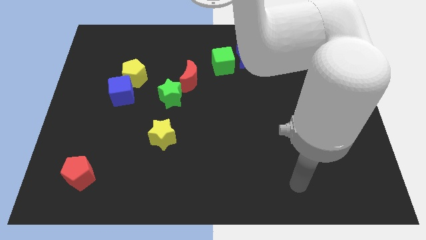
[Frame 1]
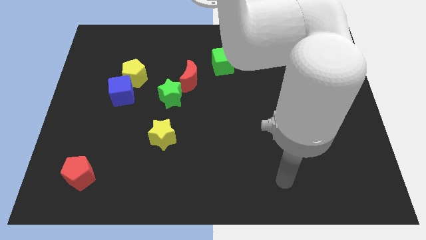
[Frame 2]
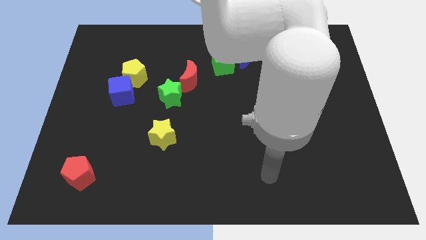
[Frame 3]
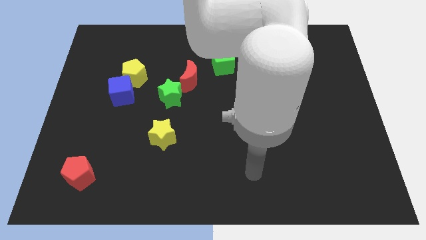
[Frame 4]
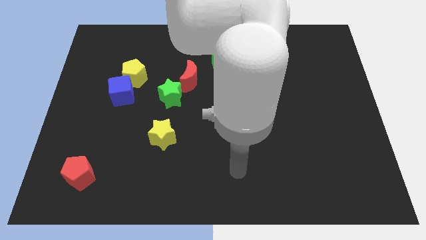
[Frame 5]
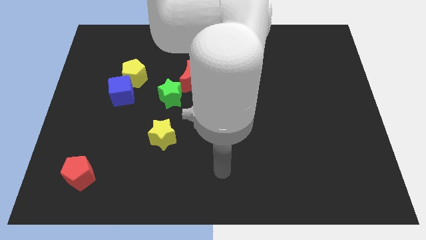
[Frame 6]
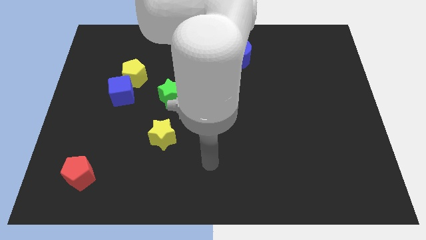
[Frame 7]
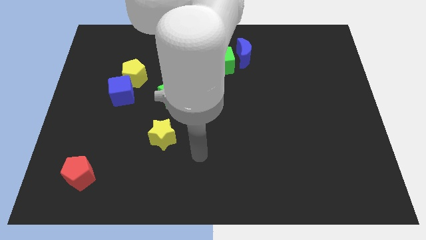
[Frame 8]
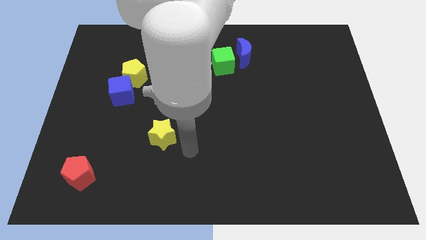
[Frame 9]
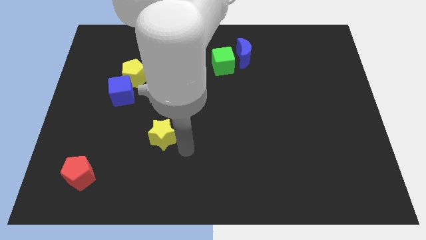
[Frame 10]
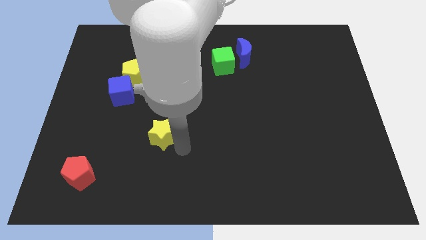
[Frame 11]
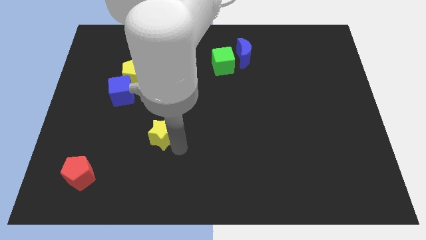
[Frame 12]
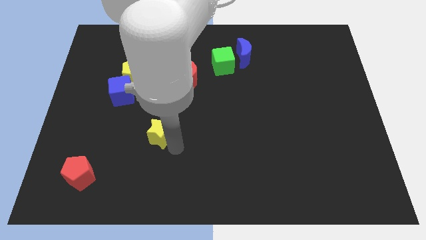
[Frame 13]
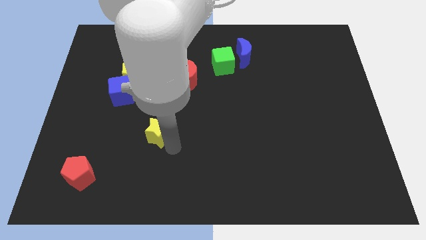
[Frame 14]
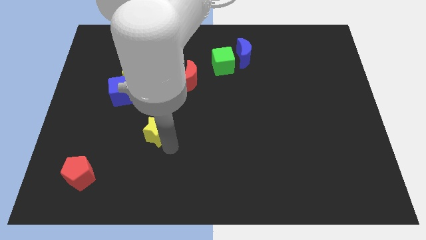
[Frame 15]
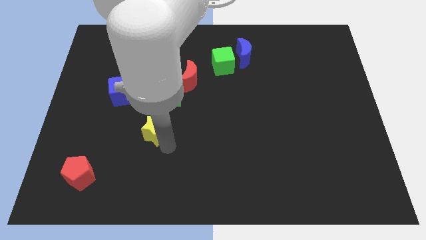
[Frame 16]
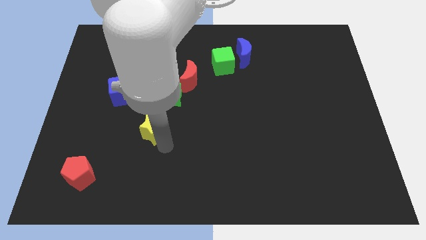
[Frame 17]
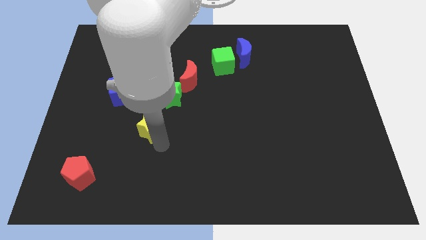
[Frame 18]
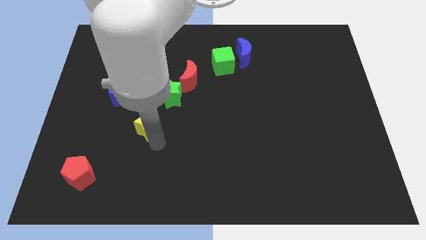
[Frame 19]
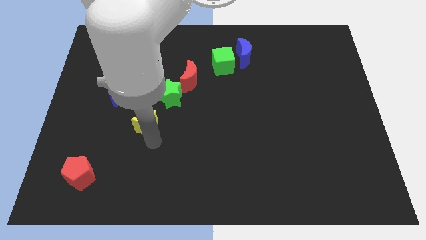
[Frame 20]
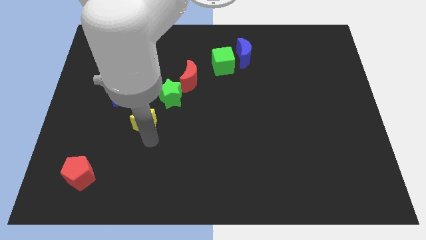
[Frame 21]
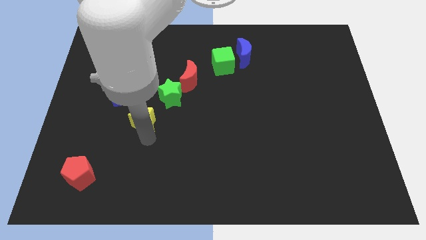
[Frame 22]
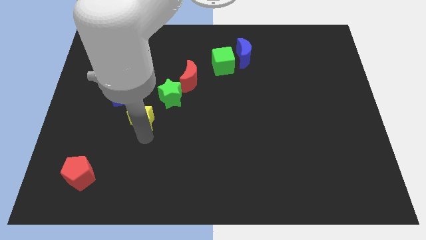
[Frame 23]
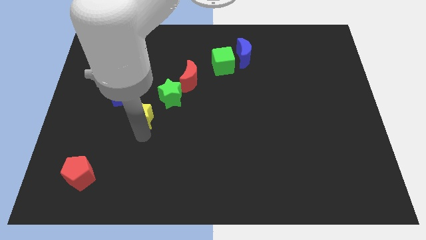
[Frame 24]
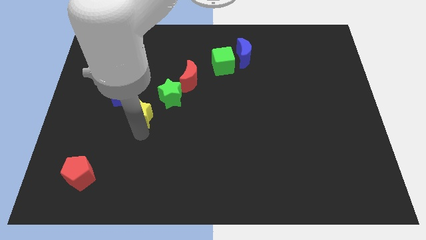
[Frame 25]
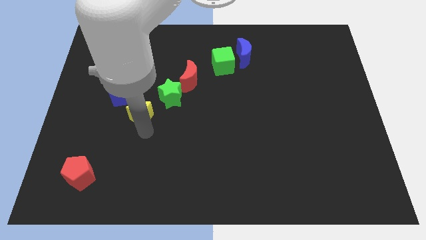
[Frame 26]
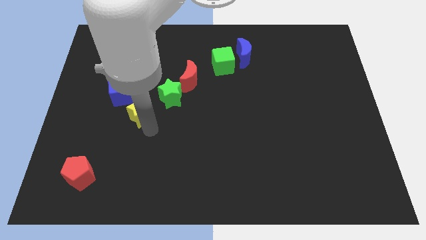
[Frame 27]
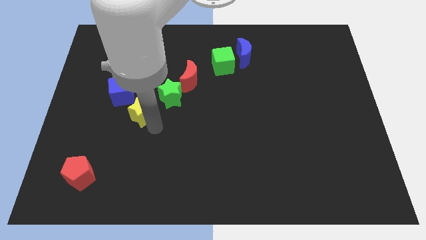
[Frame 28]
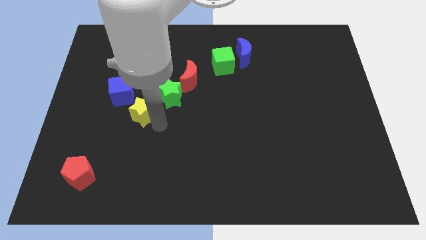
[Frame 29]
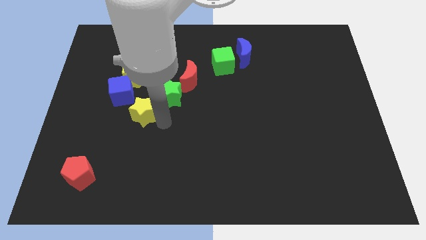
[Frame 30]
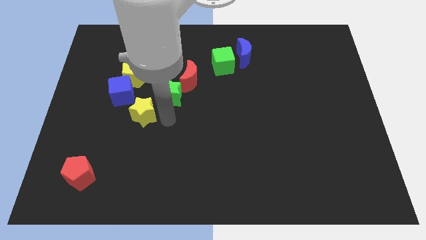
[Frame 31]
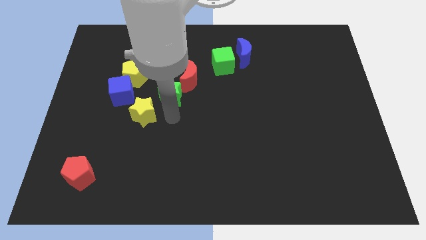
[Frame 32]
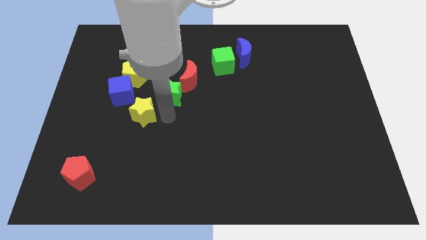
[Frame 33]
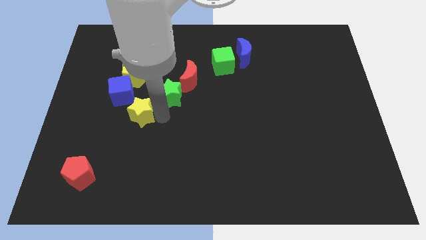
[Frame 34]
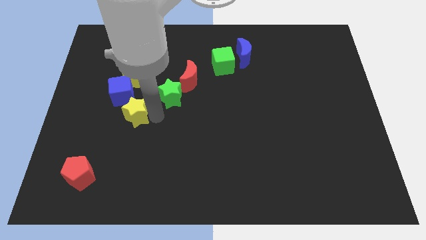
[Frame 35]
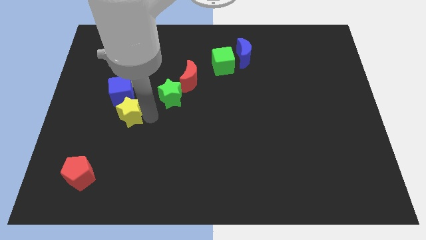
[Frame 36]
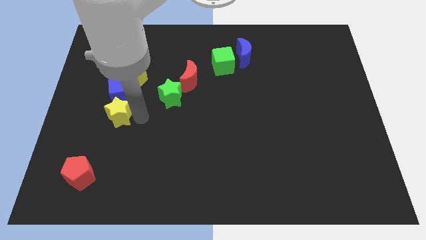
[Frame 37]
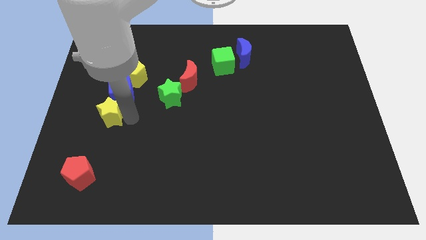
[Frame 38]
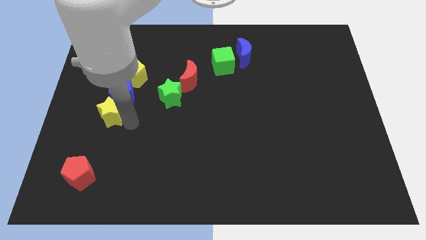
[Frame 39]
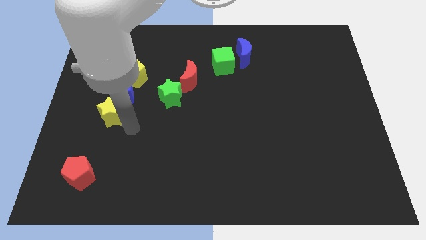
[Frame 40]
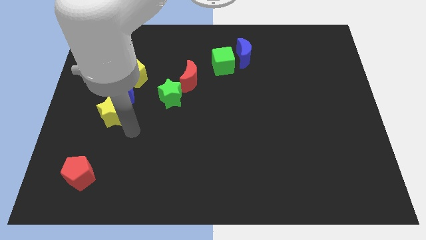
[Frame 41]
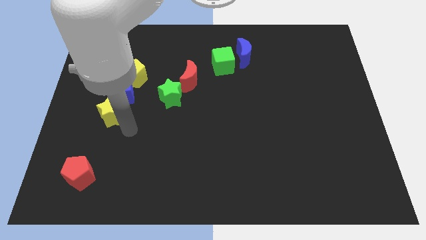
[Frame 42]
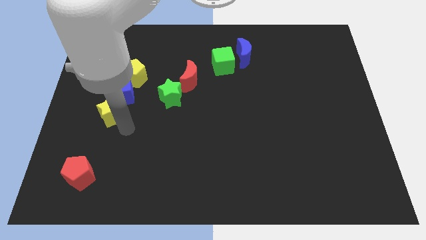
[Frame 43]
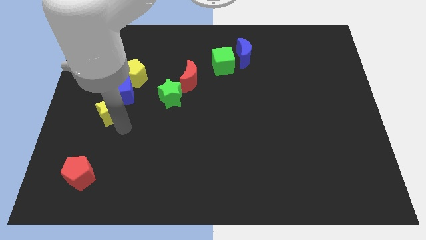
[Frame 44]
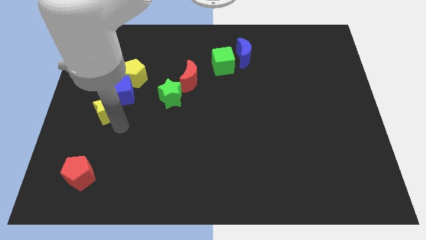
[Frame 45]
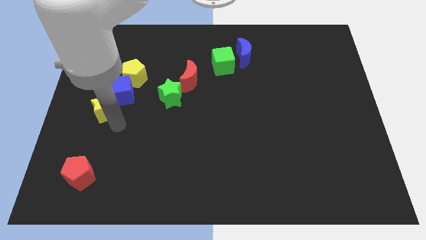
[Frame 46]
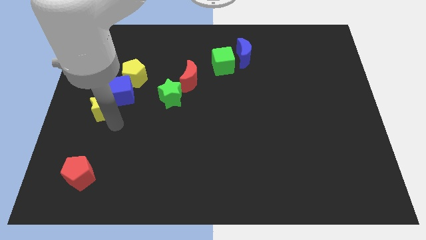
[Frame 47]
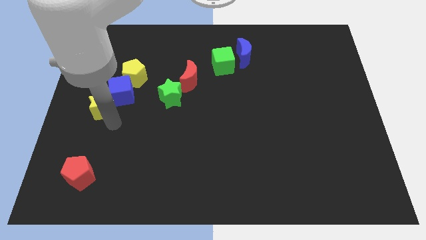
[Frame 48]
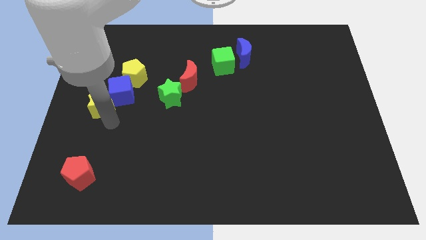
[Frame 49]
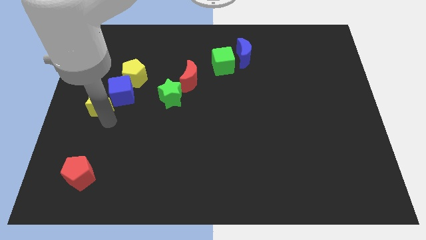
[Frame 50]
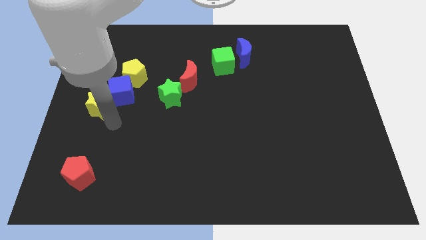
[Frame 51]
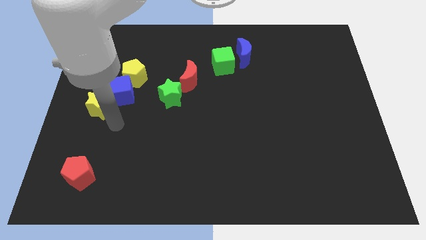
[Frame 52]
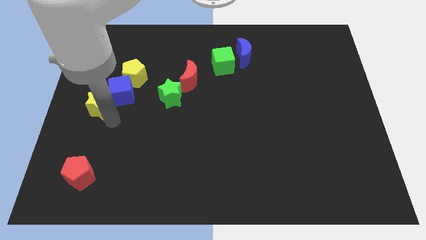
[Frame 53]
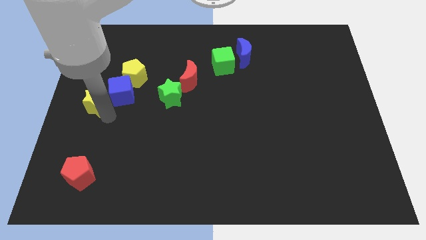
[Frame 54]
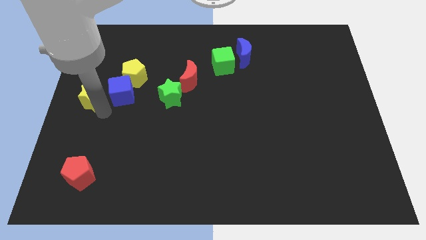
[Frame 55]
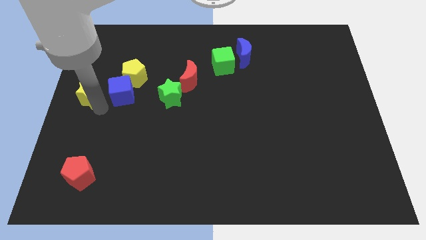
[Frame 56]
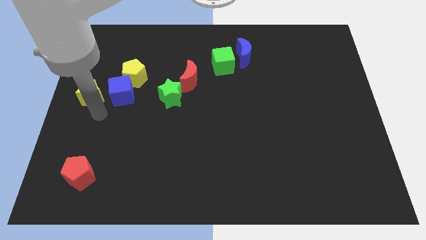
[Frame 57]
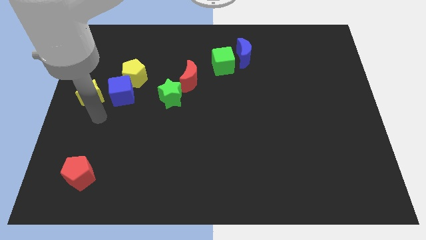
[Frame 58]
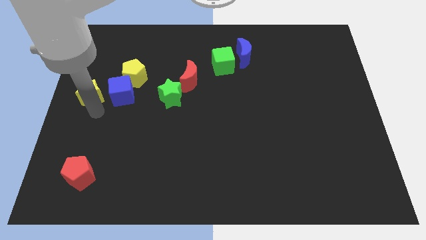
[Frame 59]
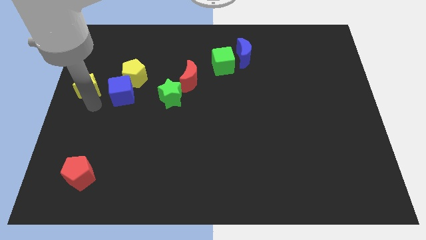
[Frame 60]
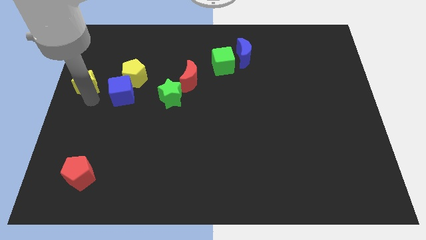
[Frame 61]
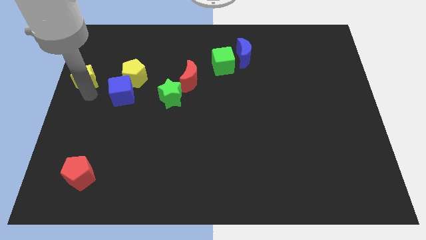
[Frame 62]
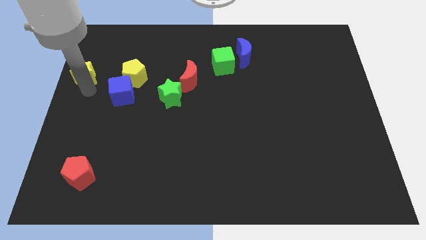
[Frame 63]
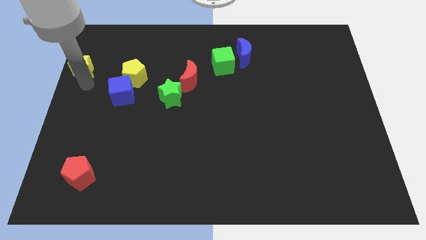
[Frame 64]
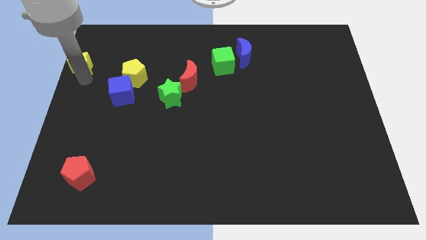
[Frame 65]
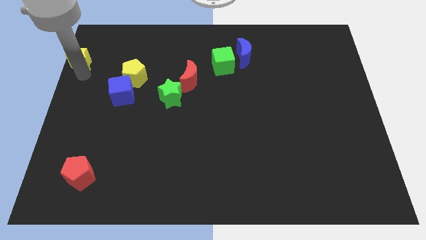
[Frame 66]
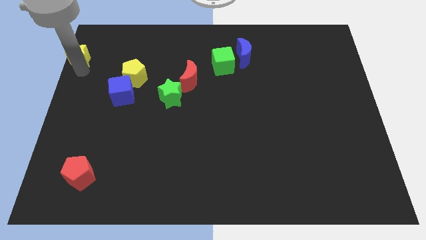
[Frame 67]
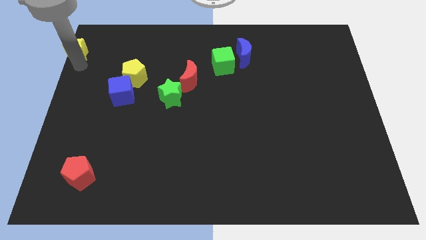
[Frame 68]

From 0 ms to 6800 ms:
put the yellow star to the top left

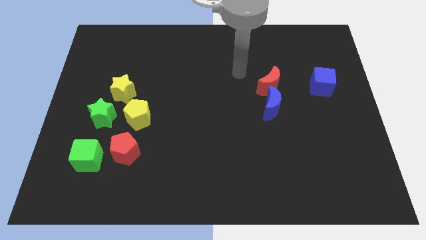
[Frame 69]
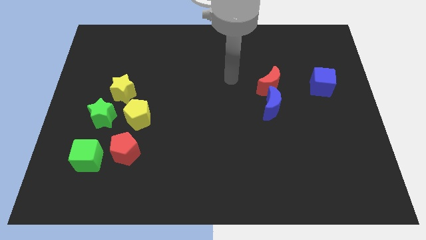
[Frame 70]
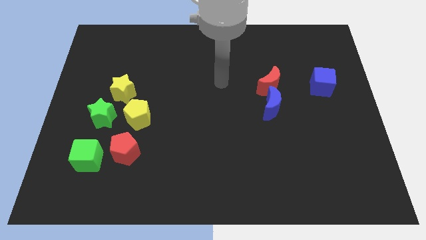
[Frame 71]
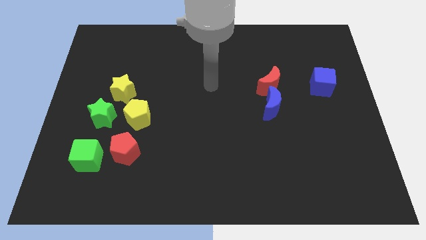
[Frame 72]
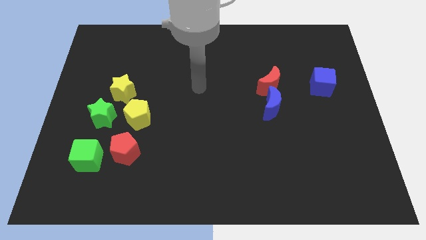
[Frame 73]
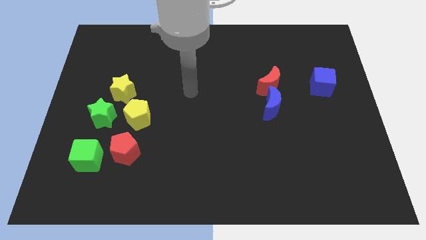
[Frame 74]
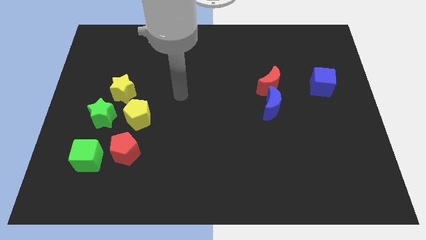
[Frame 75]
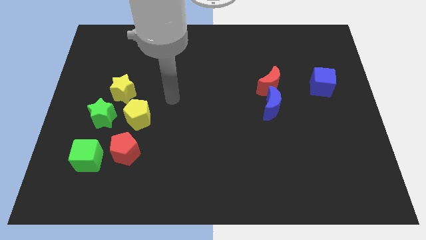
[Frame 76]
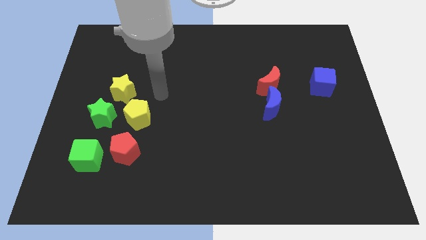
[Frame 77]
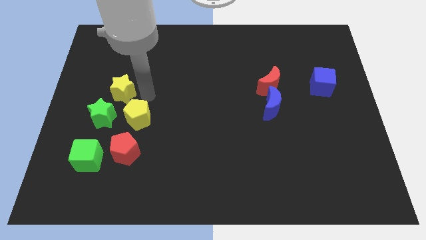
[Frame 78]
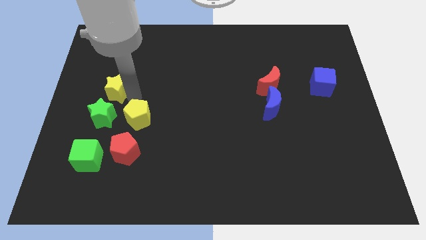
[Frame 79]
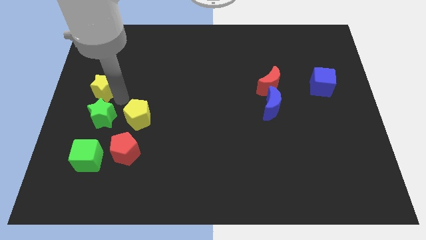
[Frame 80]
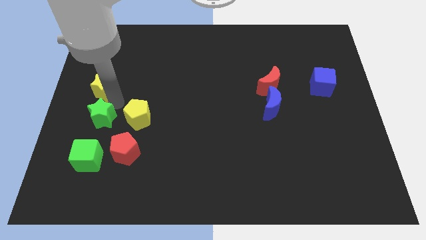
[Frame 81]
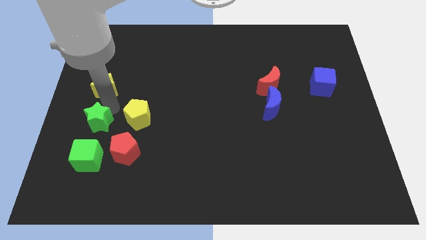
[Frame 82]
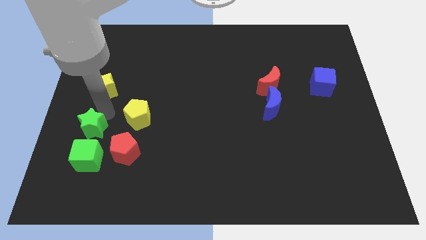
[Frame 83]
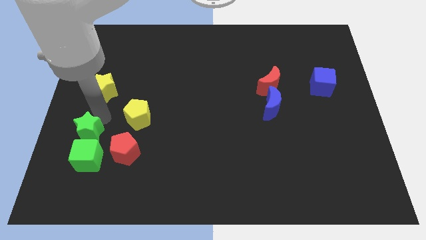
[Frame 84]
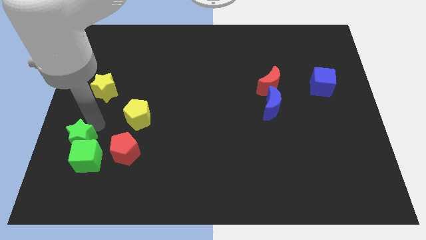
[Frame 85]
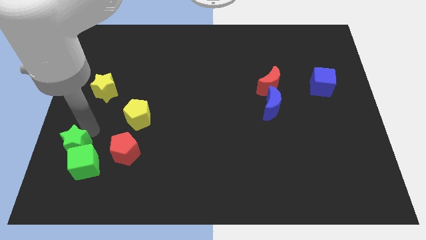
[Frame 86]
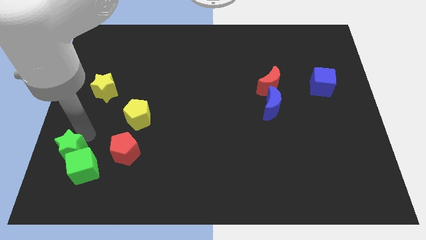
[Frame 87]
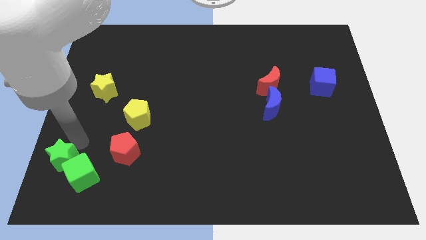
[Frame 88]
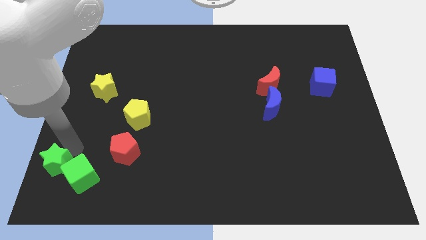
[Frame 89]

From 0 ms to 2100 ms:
slide the green star to the lower left corner
